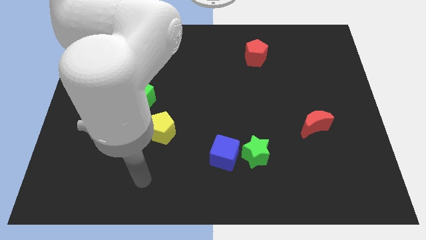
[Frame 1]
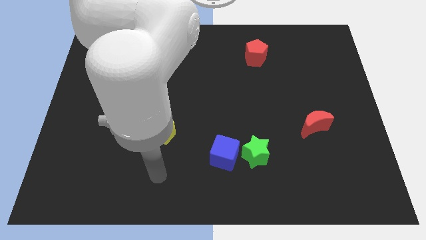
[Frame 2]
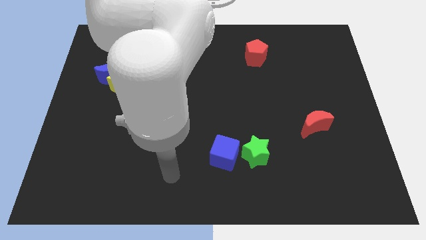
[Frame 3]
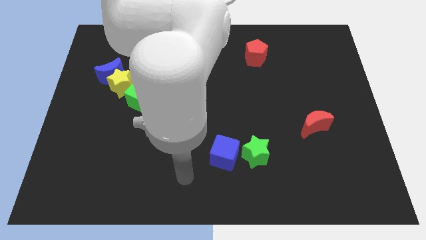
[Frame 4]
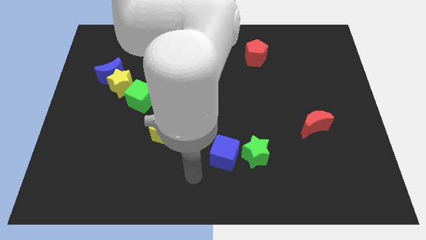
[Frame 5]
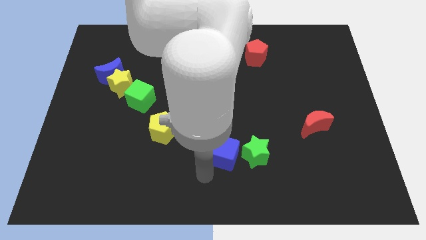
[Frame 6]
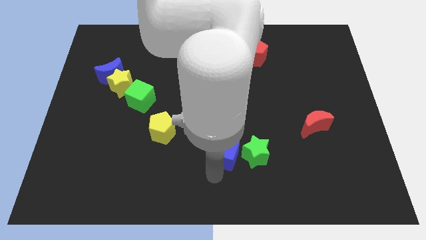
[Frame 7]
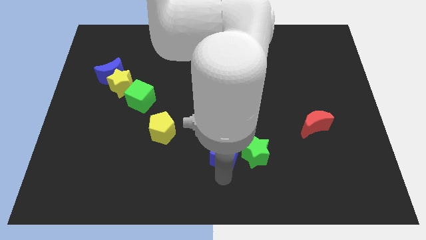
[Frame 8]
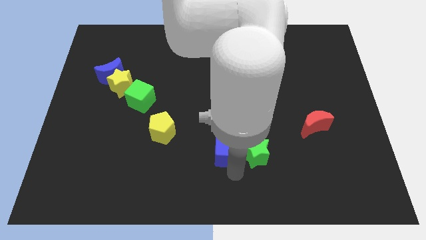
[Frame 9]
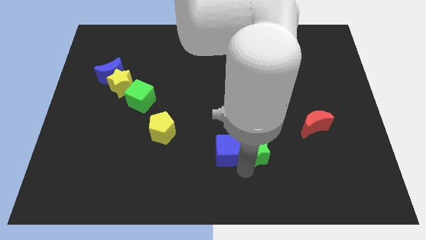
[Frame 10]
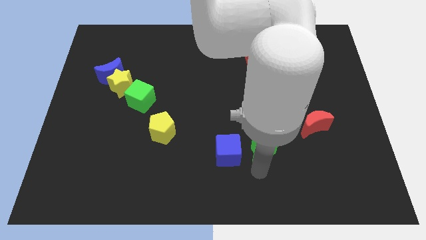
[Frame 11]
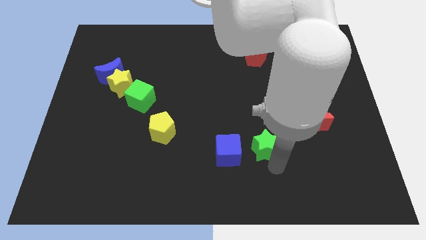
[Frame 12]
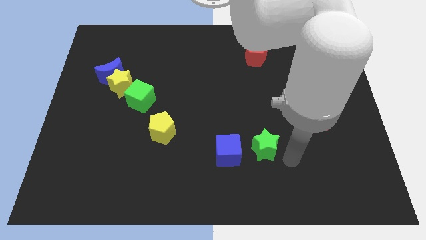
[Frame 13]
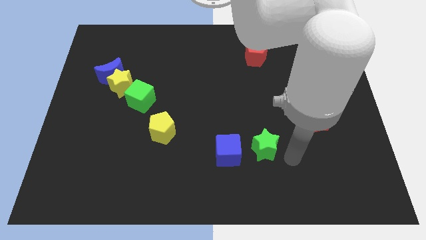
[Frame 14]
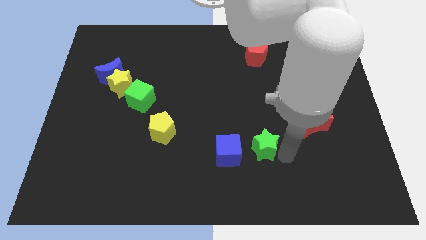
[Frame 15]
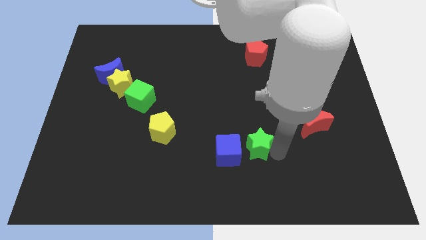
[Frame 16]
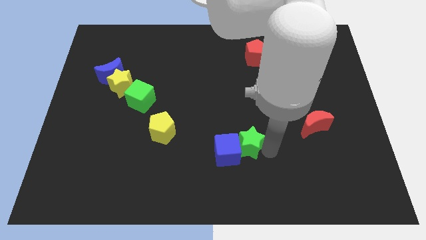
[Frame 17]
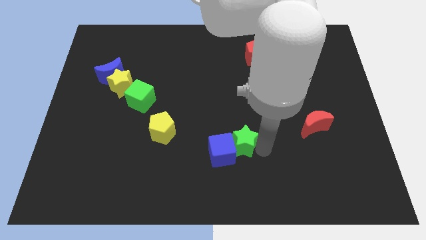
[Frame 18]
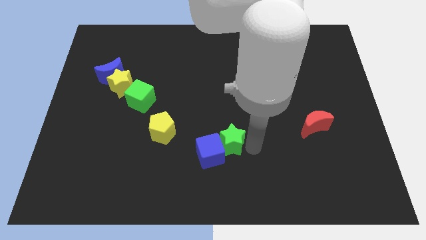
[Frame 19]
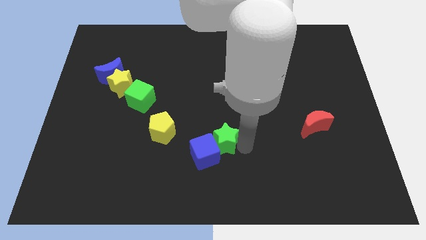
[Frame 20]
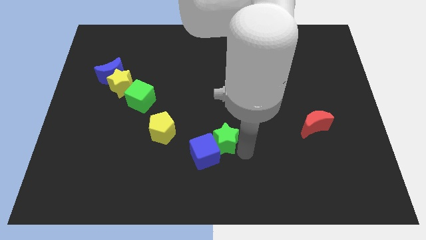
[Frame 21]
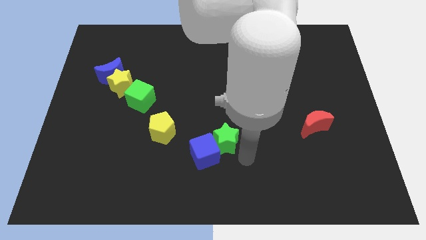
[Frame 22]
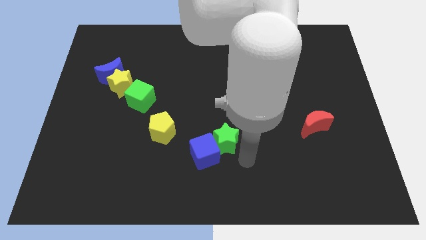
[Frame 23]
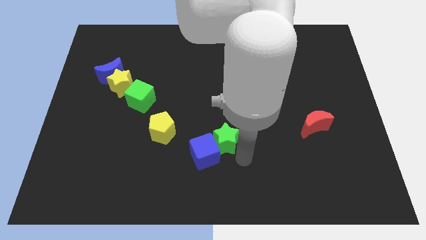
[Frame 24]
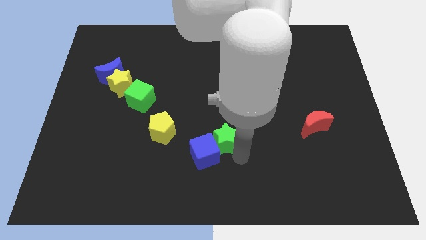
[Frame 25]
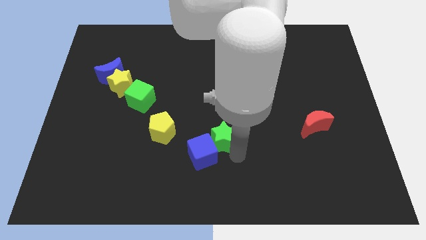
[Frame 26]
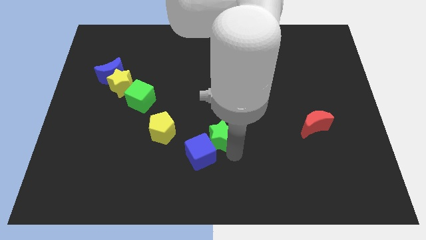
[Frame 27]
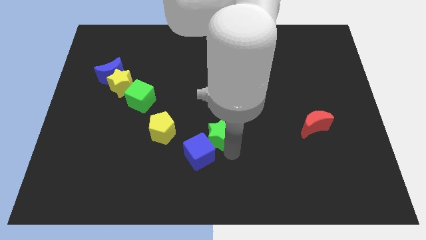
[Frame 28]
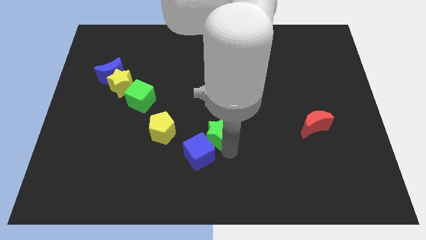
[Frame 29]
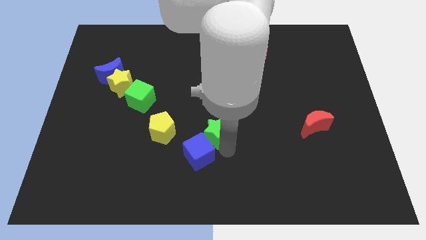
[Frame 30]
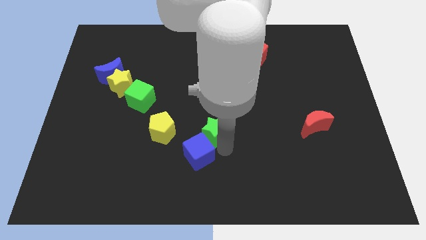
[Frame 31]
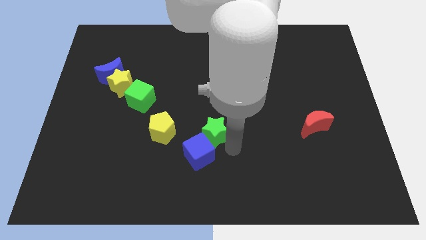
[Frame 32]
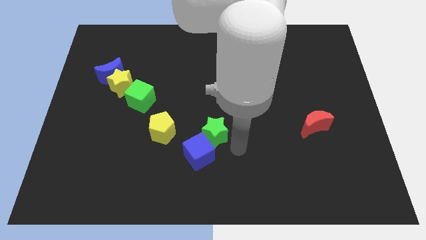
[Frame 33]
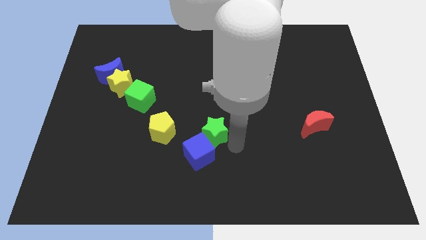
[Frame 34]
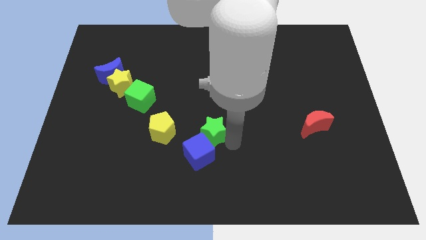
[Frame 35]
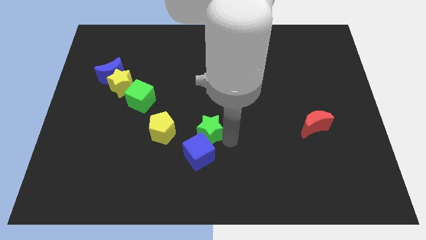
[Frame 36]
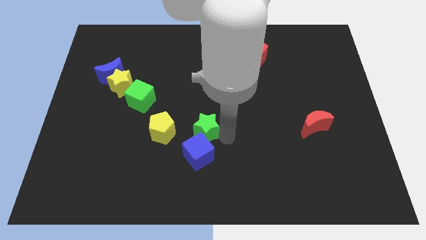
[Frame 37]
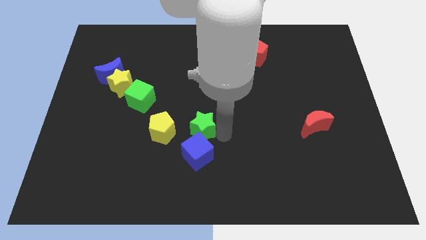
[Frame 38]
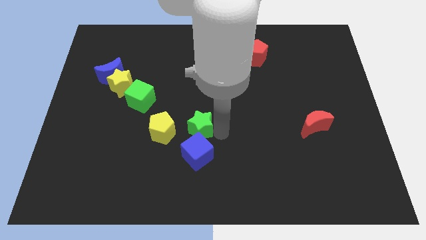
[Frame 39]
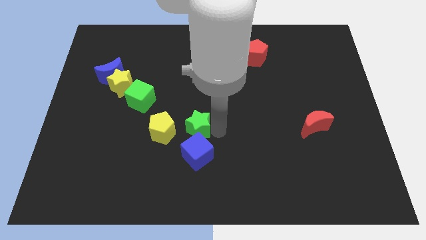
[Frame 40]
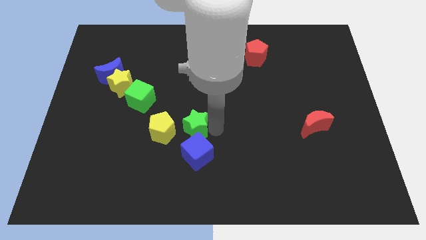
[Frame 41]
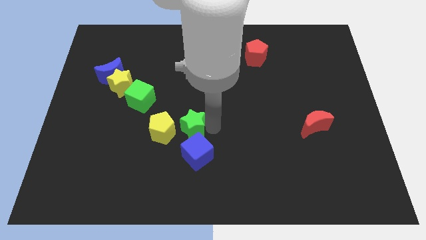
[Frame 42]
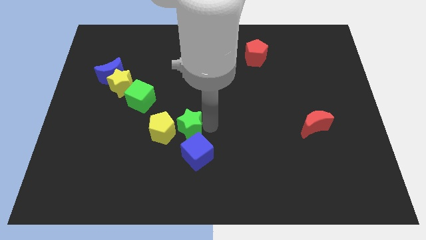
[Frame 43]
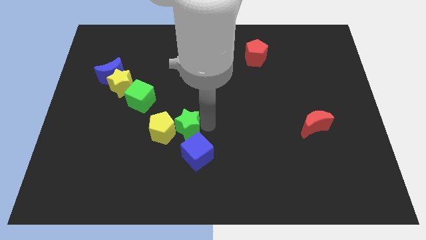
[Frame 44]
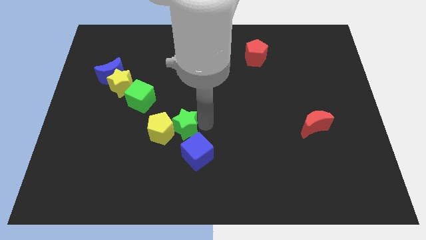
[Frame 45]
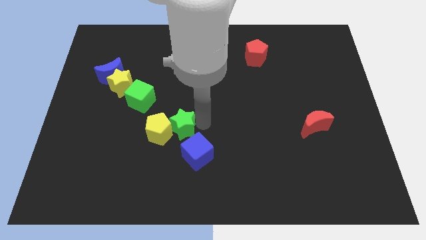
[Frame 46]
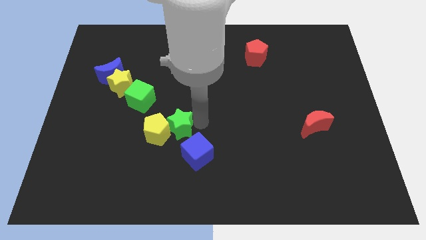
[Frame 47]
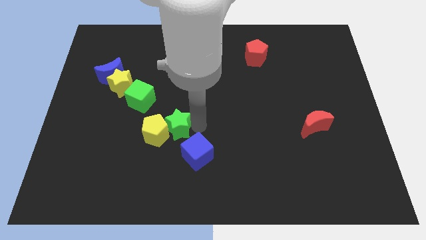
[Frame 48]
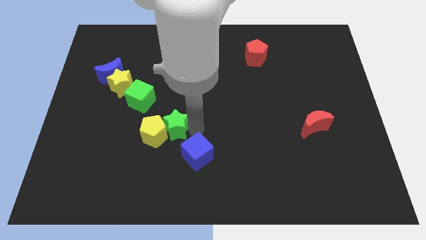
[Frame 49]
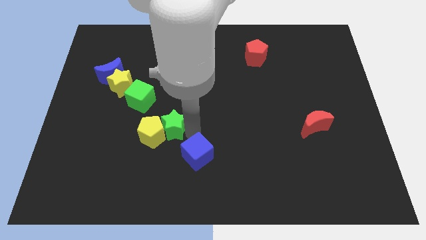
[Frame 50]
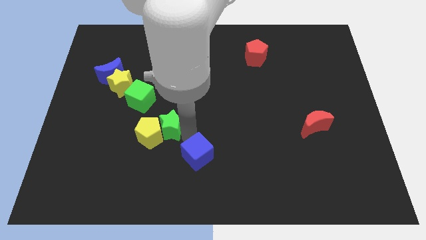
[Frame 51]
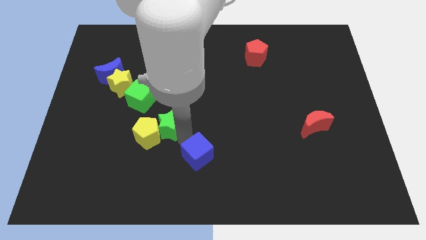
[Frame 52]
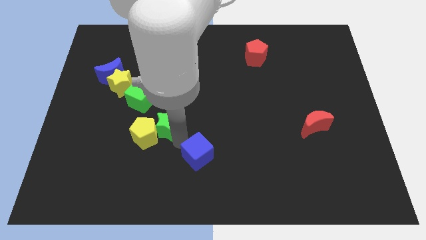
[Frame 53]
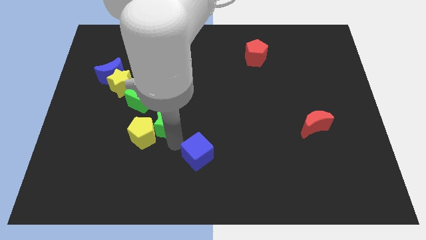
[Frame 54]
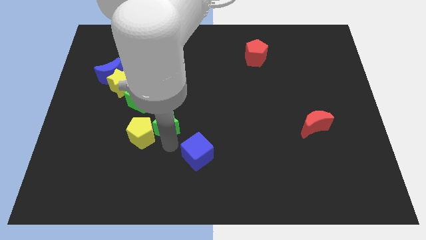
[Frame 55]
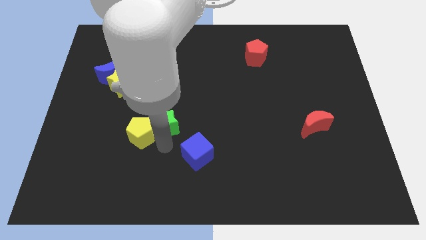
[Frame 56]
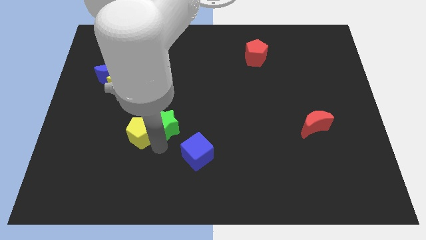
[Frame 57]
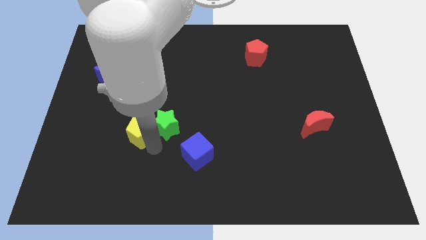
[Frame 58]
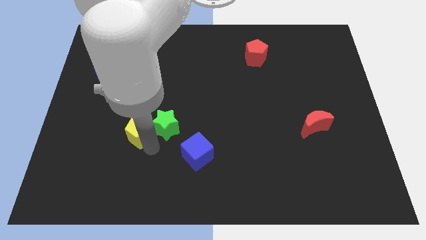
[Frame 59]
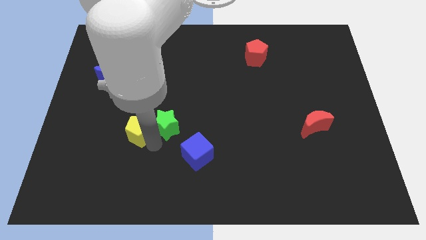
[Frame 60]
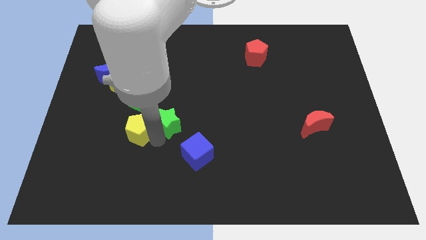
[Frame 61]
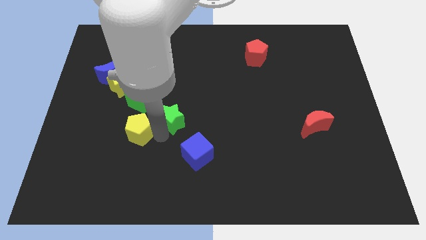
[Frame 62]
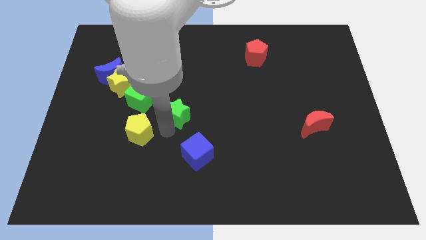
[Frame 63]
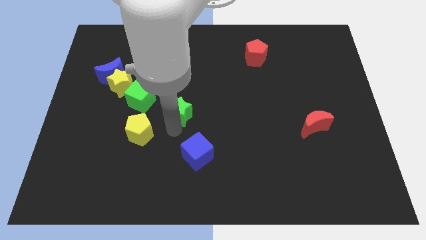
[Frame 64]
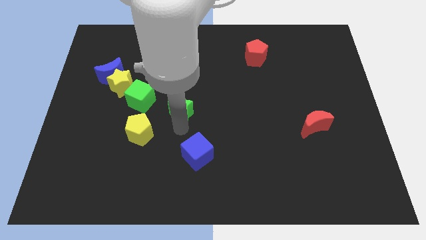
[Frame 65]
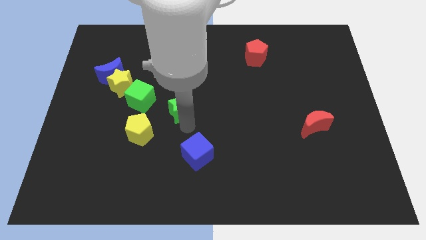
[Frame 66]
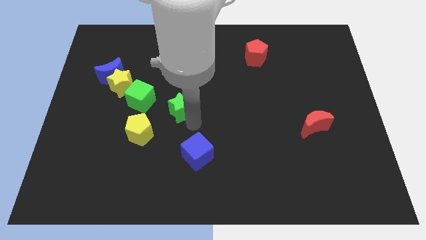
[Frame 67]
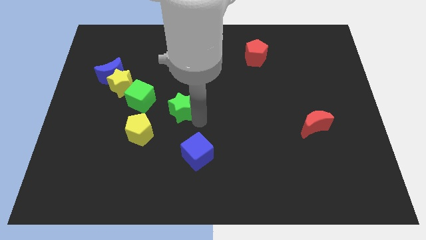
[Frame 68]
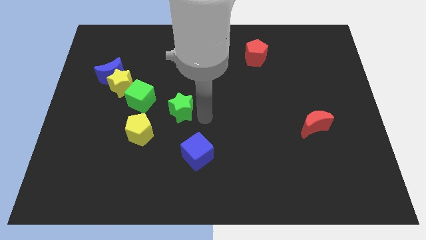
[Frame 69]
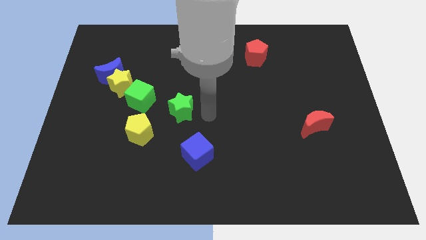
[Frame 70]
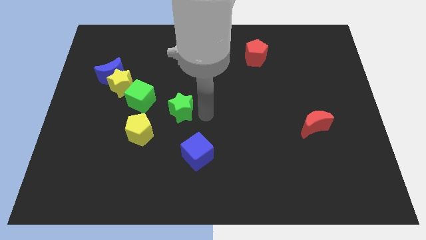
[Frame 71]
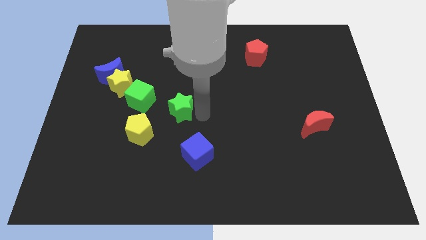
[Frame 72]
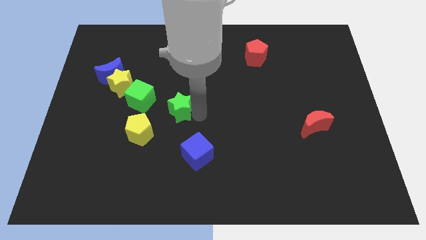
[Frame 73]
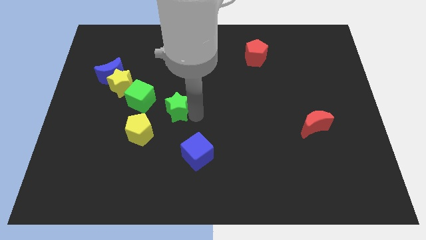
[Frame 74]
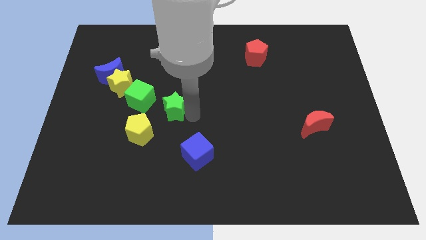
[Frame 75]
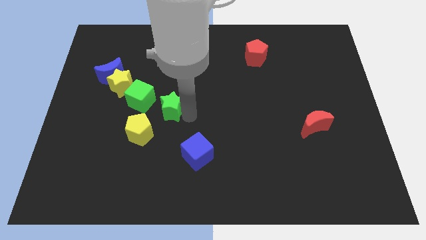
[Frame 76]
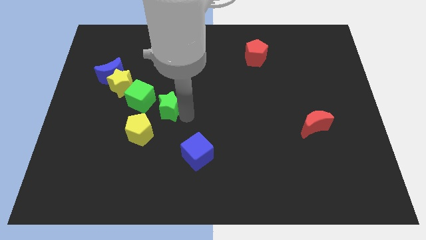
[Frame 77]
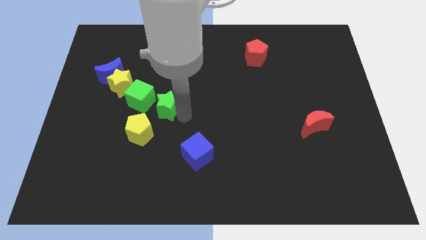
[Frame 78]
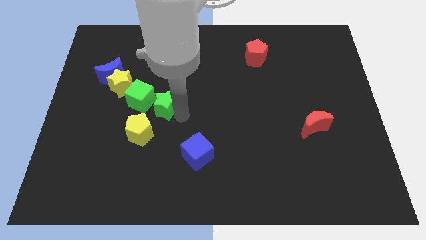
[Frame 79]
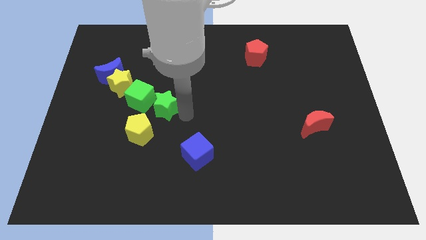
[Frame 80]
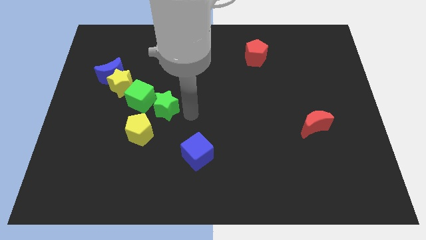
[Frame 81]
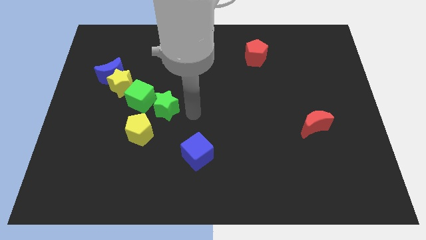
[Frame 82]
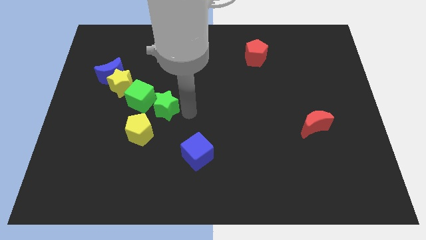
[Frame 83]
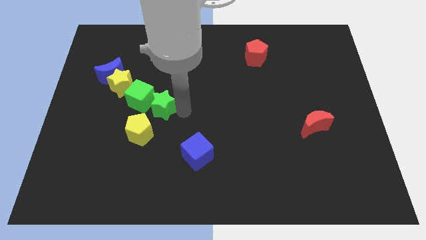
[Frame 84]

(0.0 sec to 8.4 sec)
put the green star to the green cube
